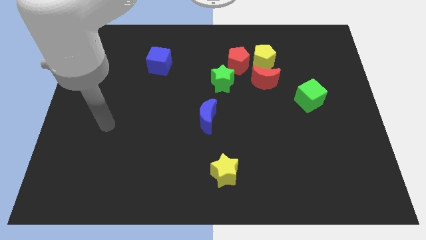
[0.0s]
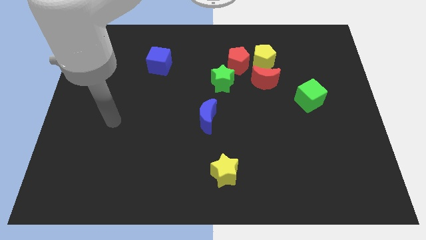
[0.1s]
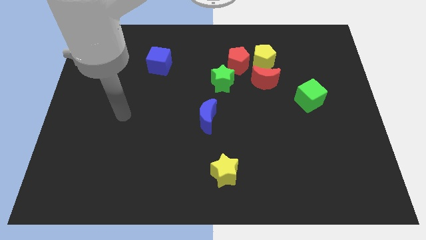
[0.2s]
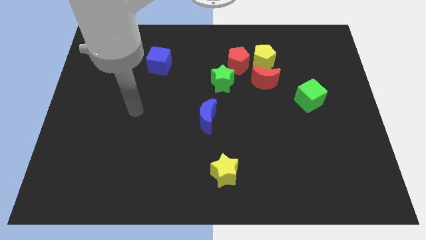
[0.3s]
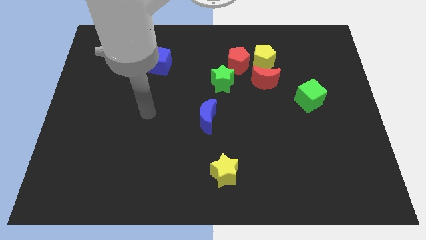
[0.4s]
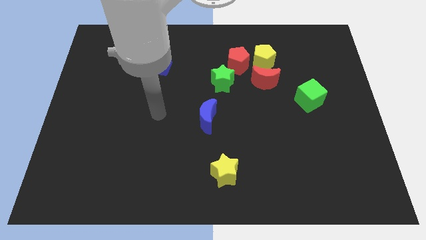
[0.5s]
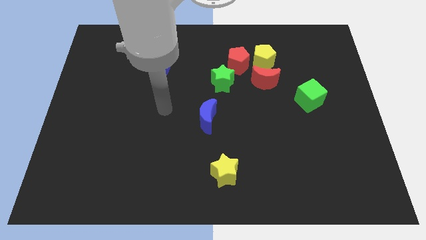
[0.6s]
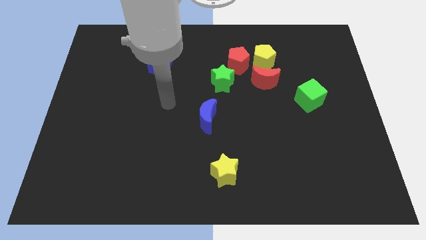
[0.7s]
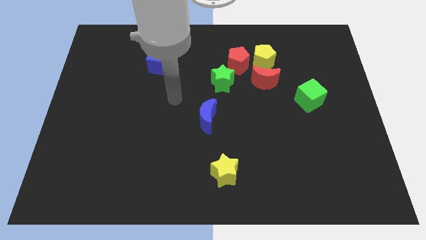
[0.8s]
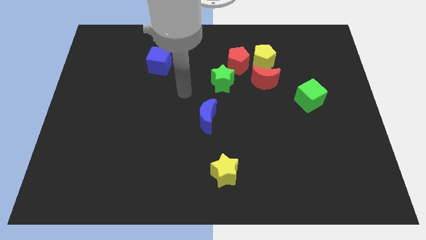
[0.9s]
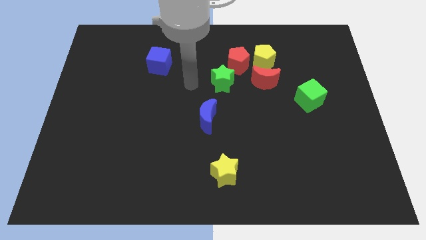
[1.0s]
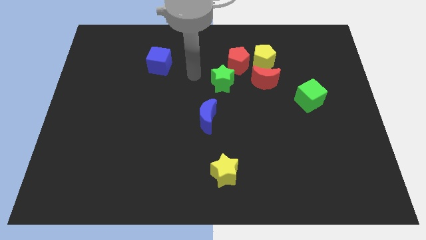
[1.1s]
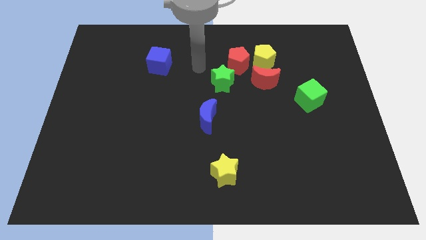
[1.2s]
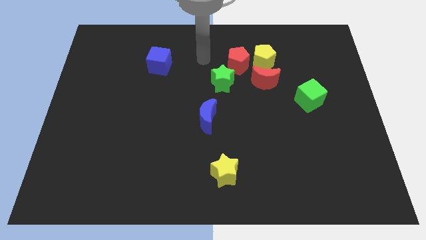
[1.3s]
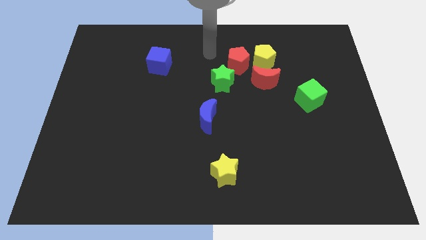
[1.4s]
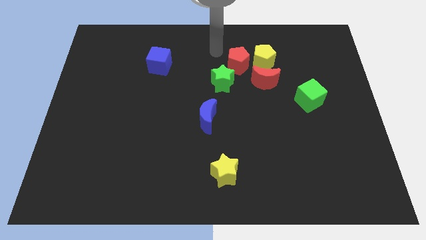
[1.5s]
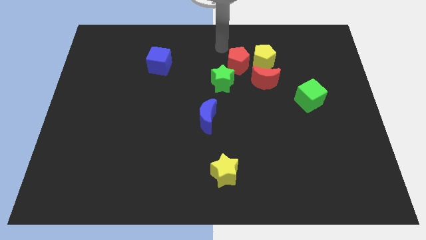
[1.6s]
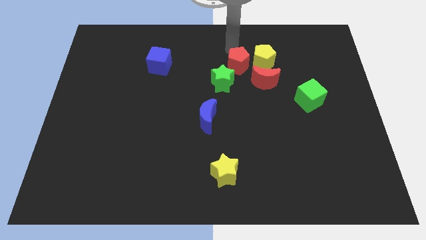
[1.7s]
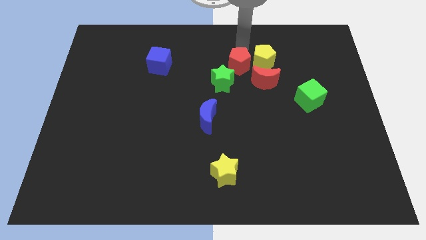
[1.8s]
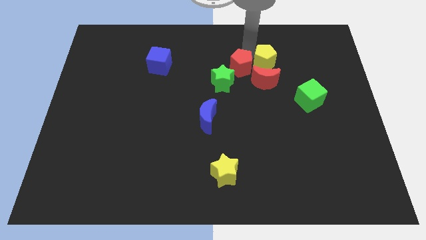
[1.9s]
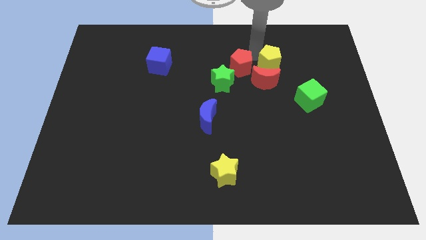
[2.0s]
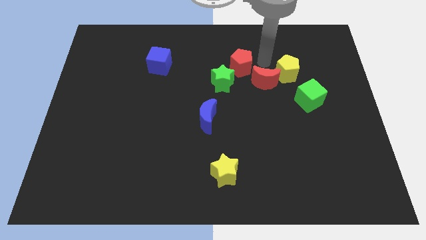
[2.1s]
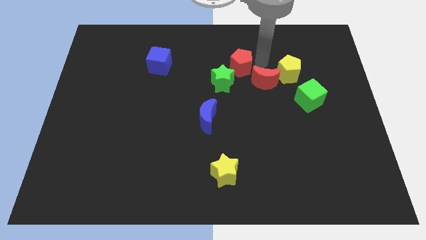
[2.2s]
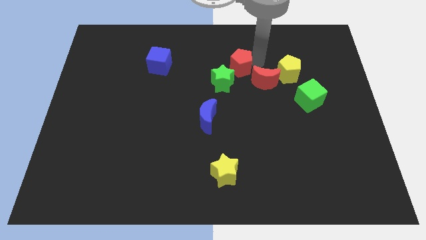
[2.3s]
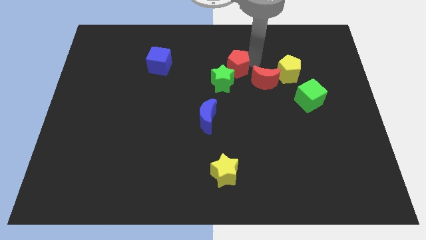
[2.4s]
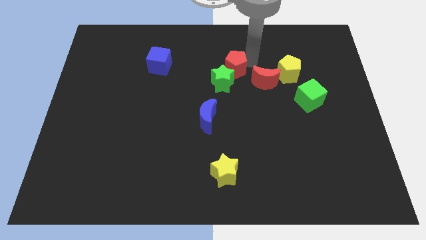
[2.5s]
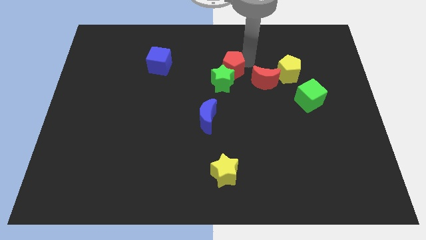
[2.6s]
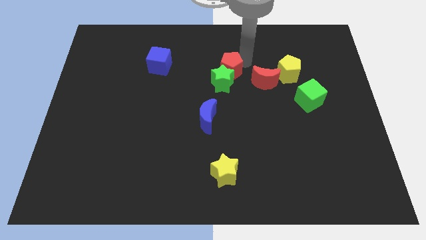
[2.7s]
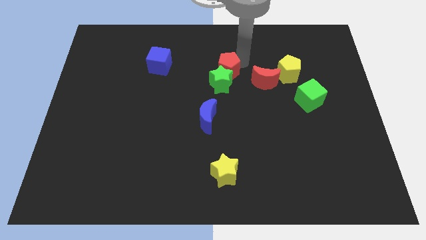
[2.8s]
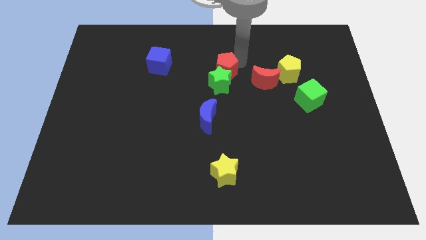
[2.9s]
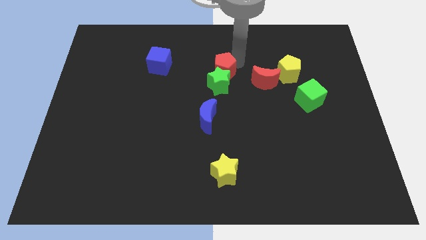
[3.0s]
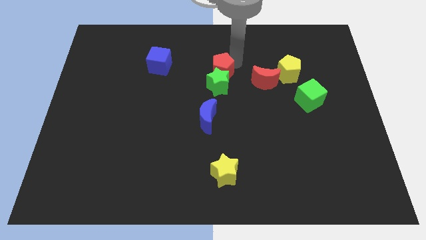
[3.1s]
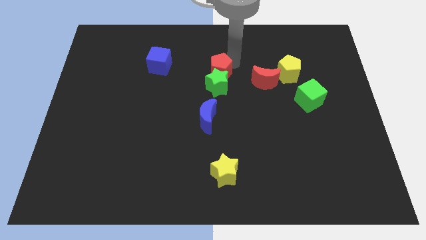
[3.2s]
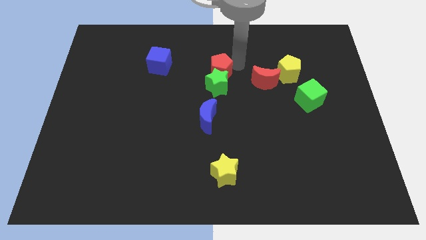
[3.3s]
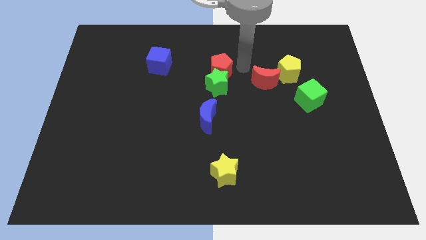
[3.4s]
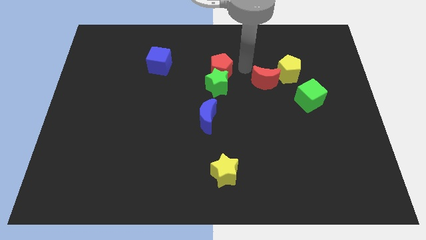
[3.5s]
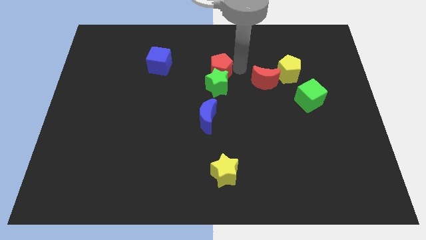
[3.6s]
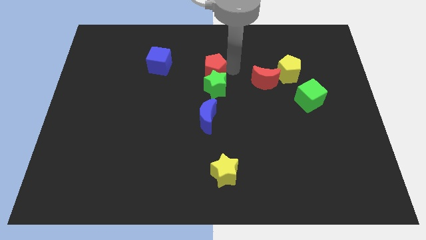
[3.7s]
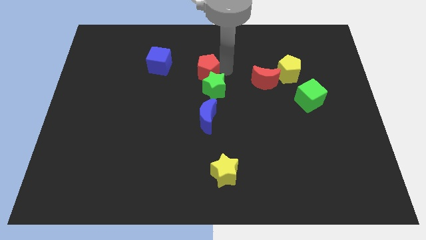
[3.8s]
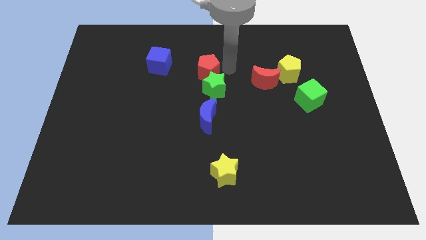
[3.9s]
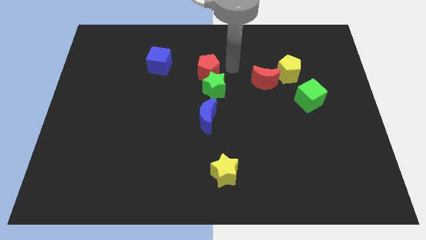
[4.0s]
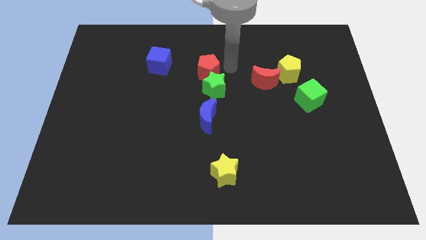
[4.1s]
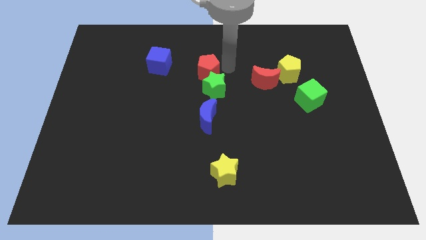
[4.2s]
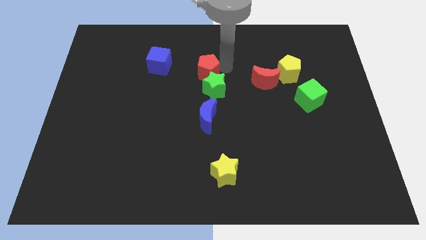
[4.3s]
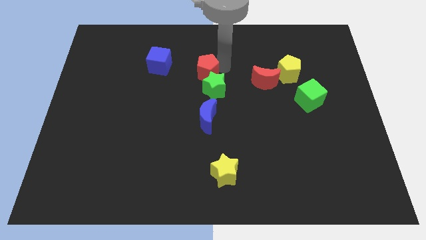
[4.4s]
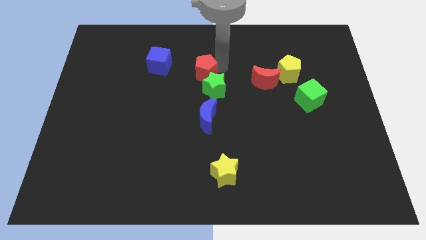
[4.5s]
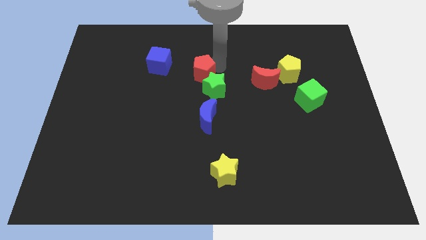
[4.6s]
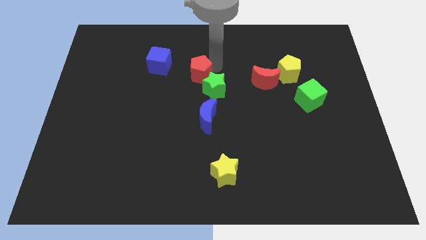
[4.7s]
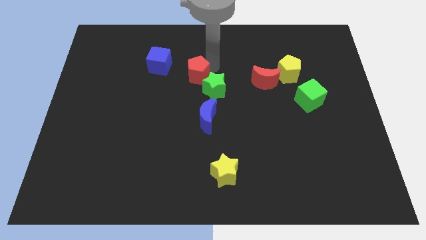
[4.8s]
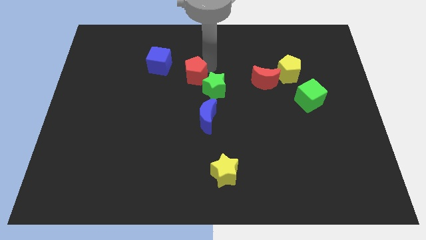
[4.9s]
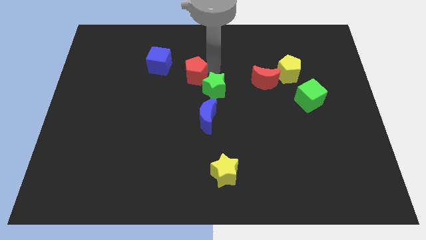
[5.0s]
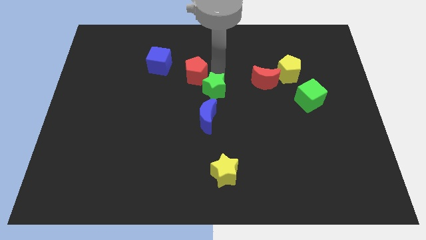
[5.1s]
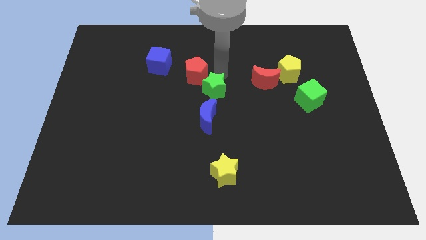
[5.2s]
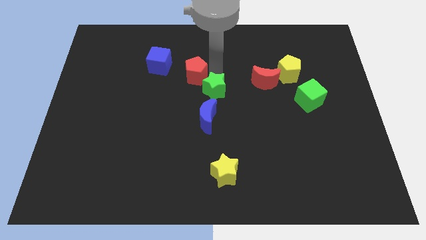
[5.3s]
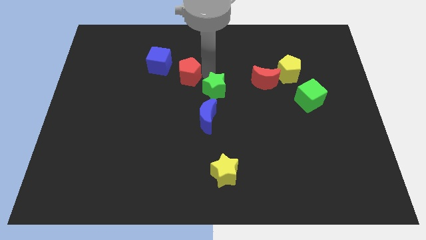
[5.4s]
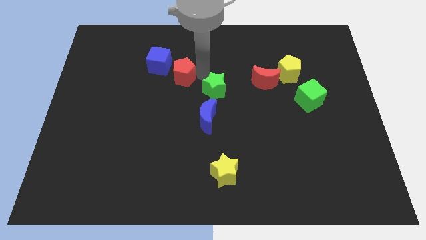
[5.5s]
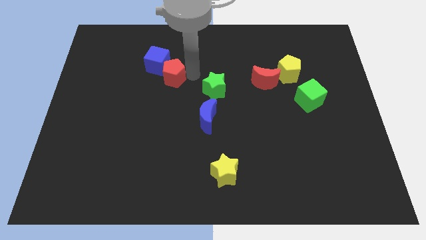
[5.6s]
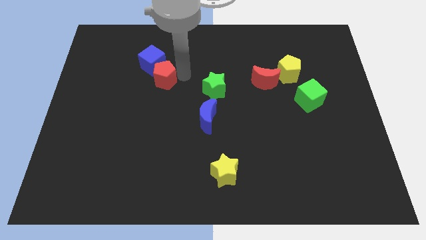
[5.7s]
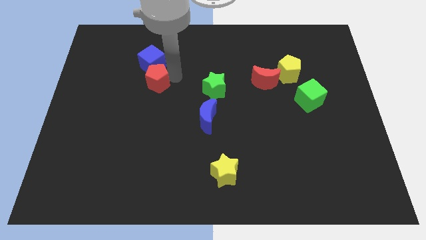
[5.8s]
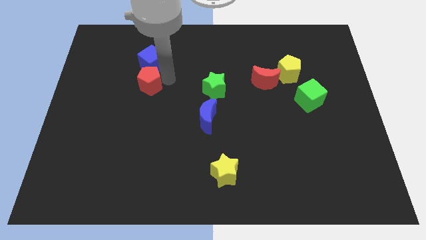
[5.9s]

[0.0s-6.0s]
put the red pentagon diagonally down and to the left of the blue cube

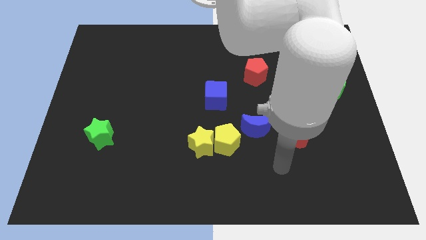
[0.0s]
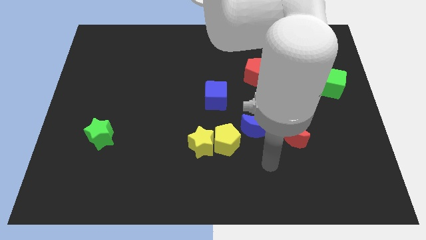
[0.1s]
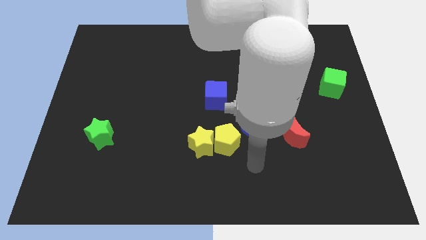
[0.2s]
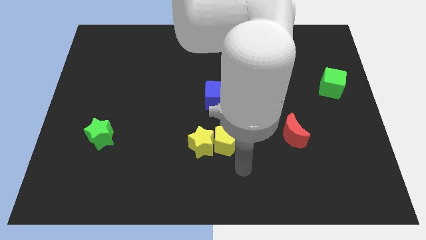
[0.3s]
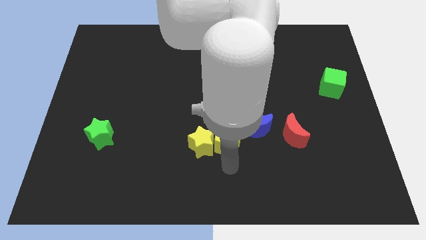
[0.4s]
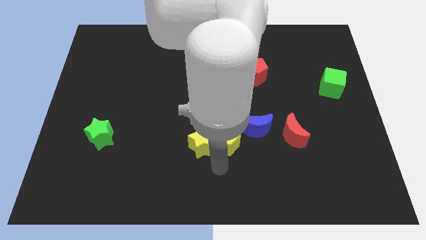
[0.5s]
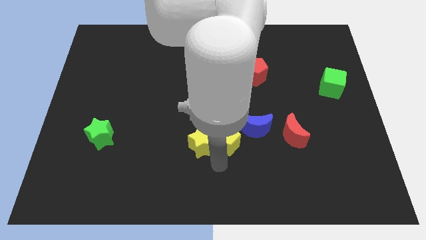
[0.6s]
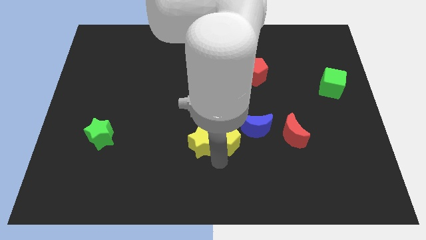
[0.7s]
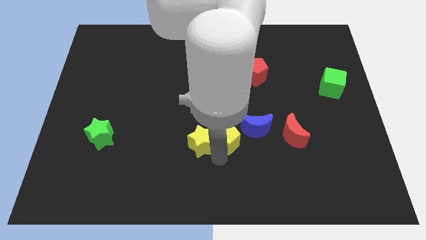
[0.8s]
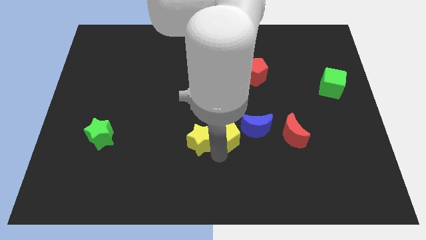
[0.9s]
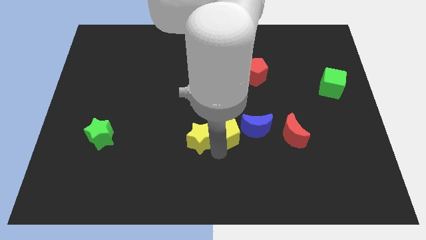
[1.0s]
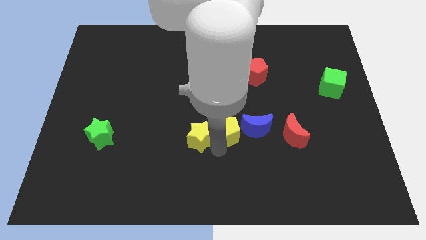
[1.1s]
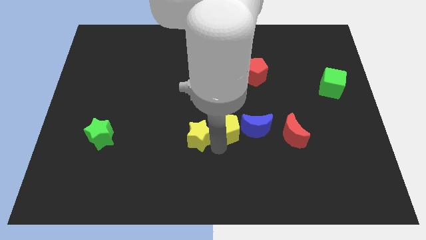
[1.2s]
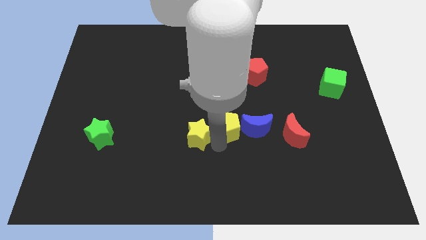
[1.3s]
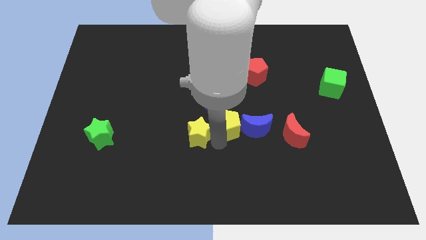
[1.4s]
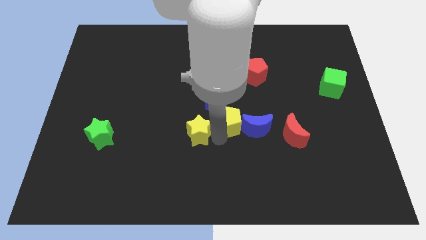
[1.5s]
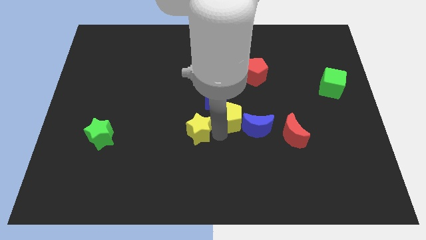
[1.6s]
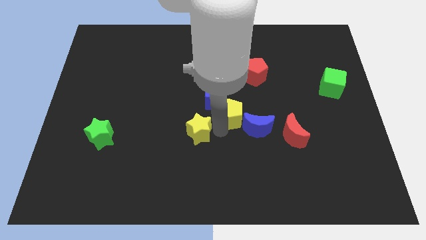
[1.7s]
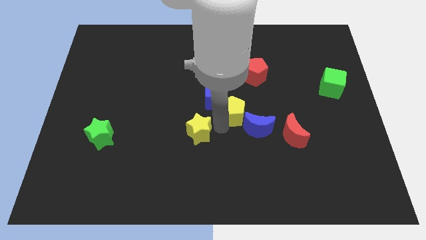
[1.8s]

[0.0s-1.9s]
put the yellow pentagon just right of the blue cube
